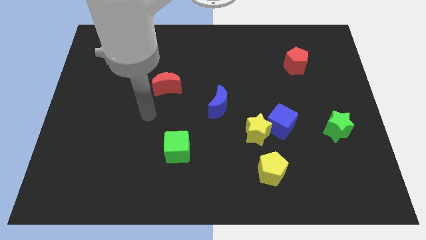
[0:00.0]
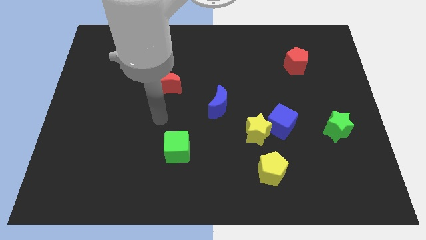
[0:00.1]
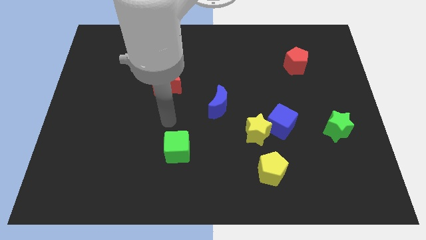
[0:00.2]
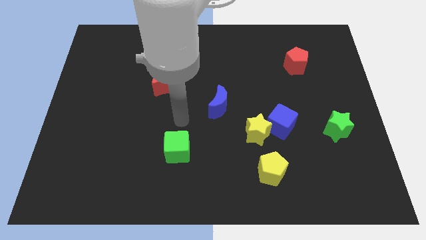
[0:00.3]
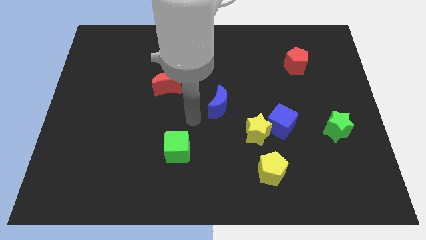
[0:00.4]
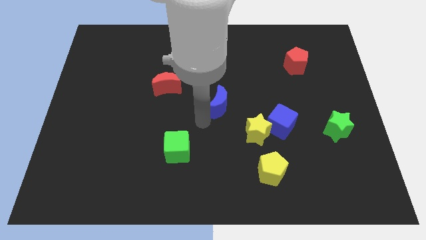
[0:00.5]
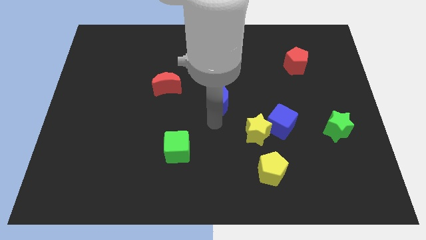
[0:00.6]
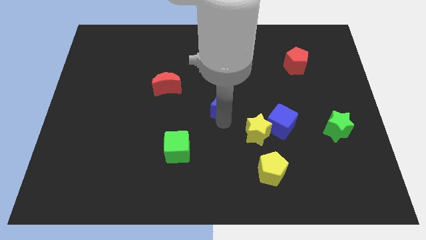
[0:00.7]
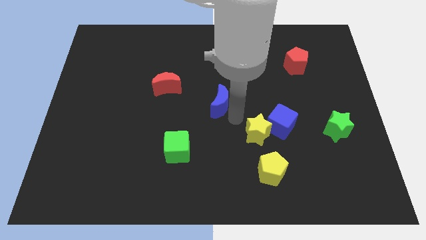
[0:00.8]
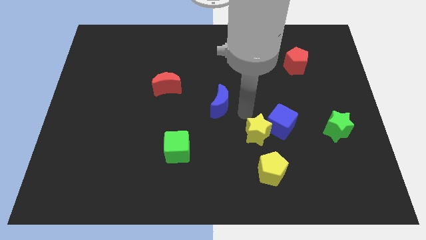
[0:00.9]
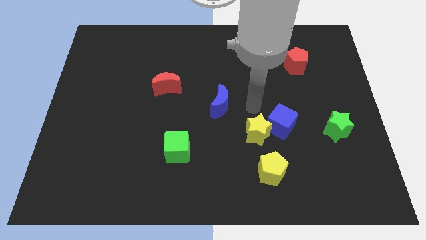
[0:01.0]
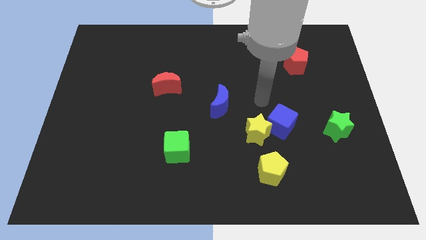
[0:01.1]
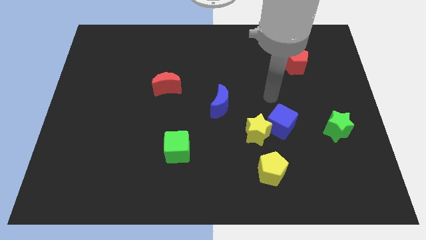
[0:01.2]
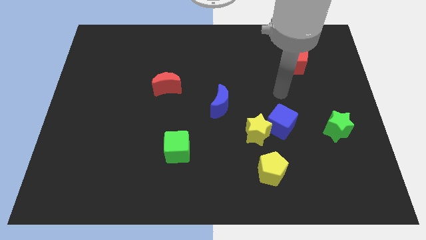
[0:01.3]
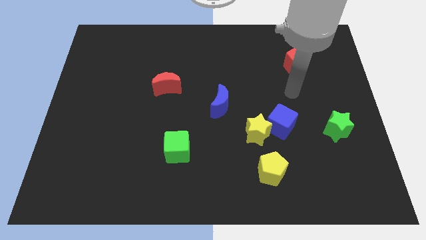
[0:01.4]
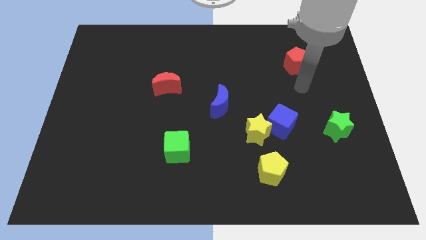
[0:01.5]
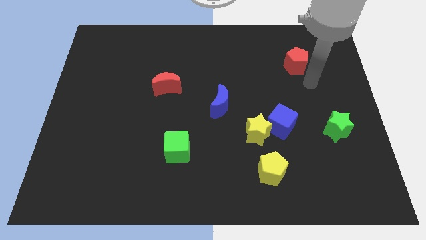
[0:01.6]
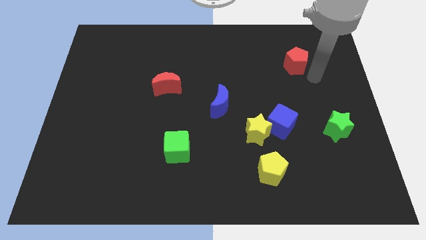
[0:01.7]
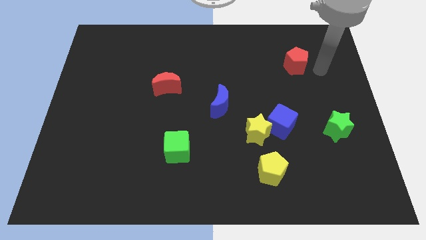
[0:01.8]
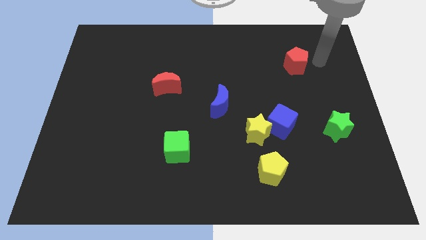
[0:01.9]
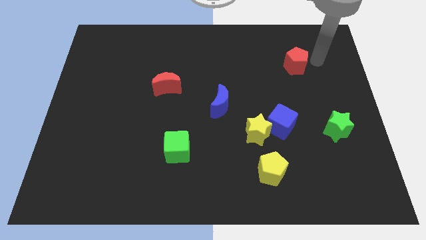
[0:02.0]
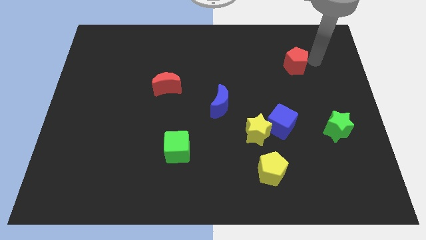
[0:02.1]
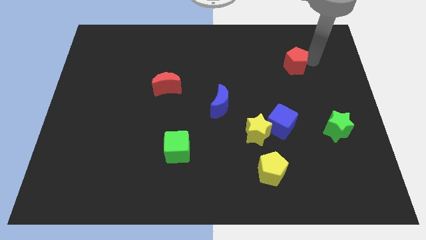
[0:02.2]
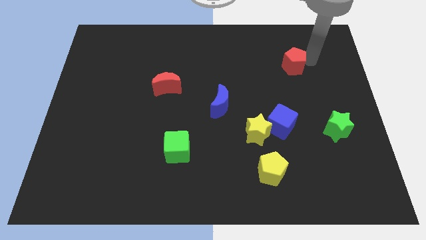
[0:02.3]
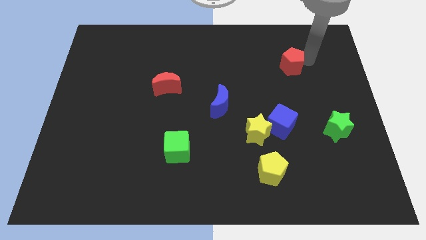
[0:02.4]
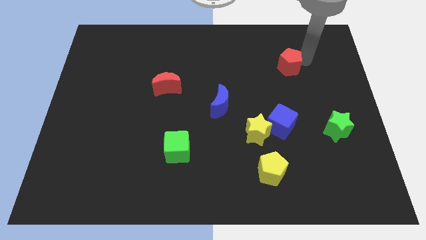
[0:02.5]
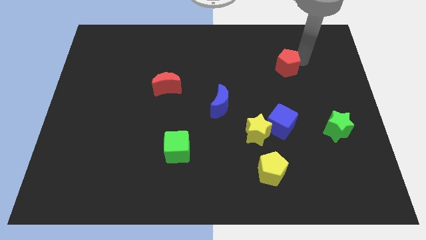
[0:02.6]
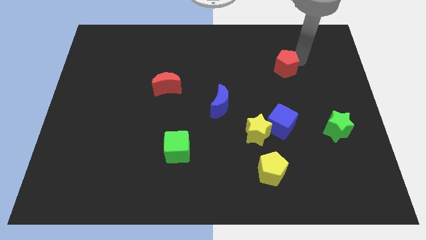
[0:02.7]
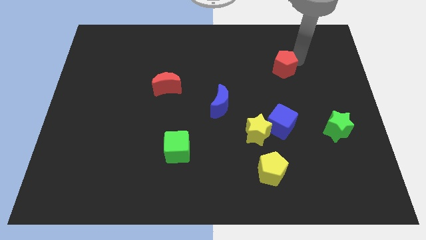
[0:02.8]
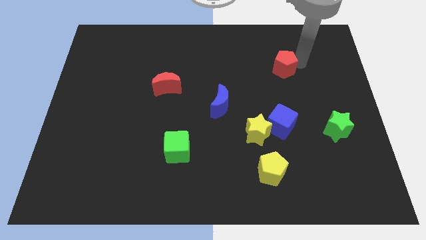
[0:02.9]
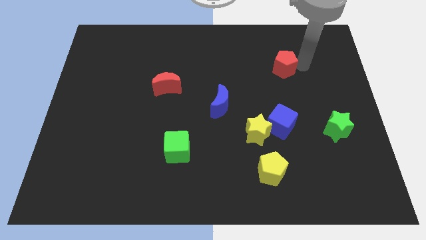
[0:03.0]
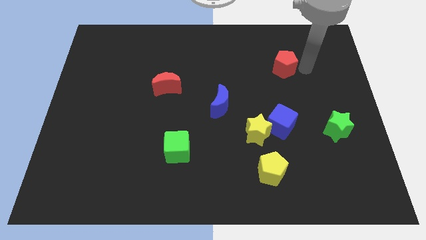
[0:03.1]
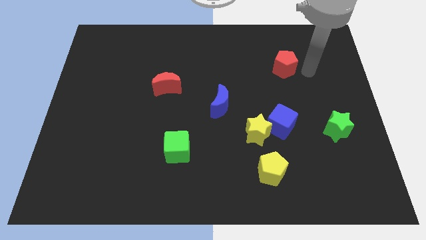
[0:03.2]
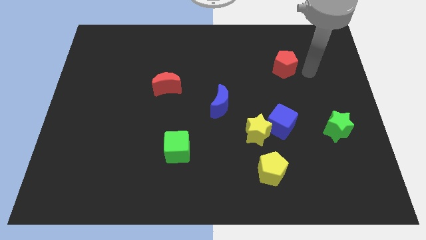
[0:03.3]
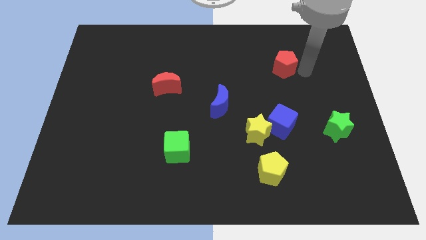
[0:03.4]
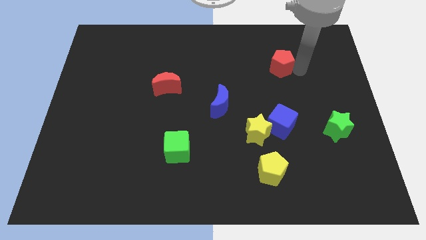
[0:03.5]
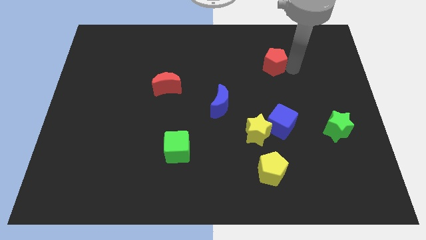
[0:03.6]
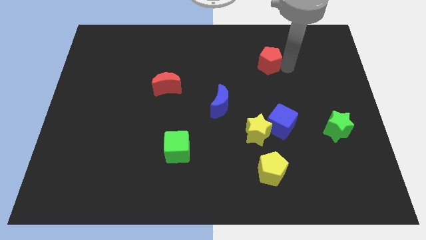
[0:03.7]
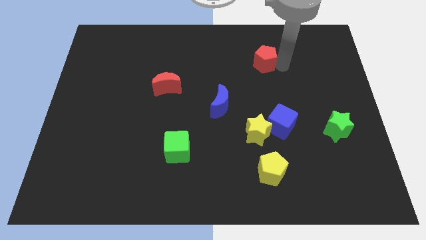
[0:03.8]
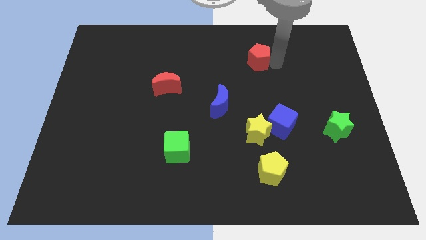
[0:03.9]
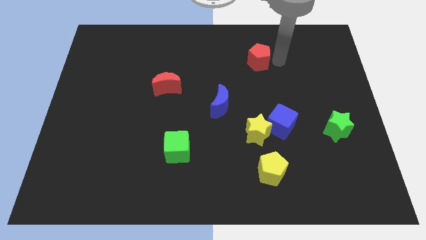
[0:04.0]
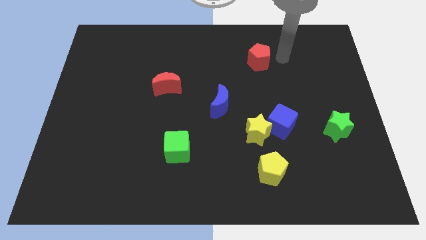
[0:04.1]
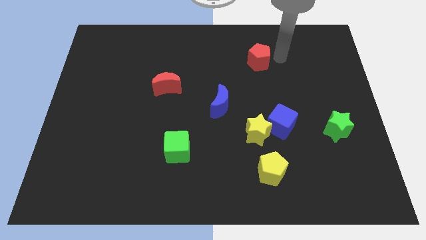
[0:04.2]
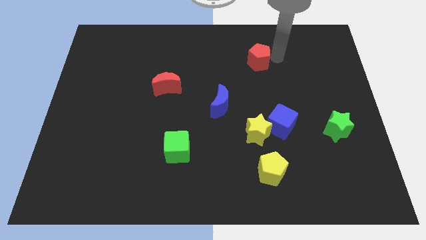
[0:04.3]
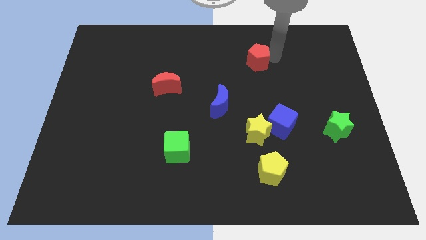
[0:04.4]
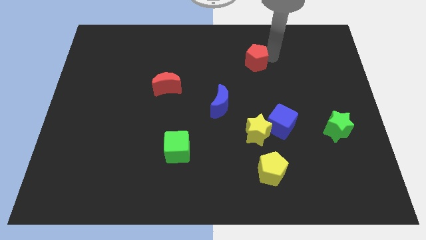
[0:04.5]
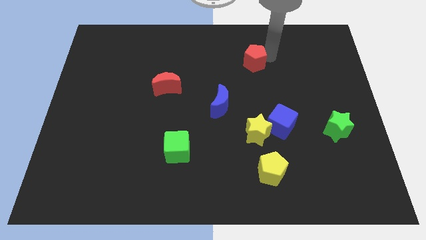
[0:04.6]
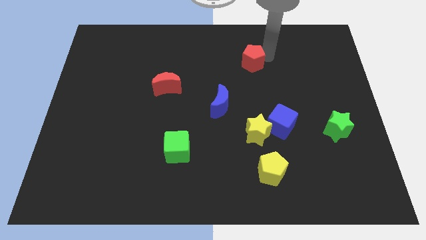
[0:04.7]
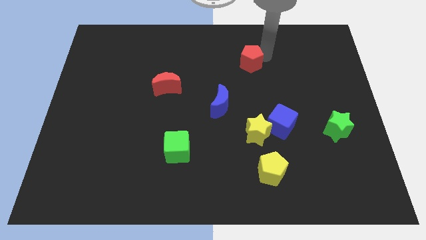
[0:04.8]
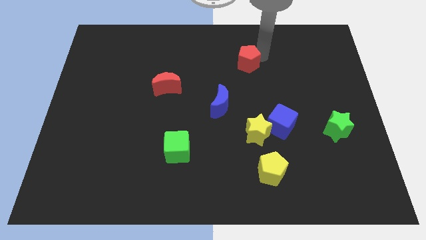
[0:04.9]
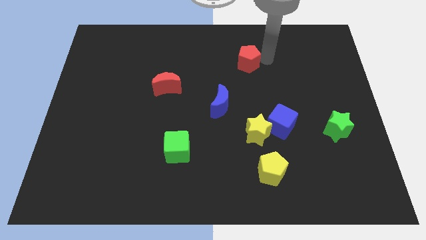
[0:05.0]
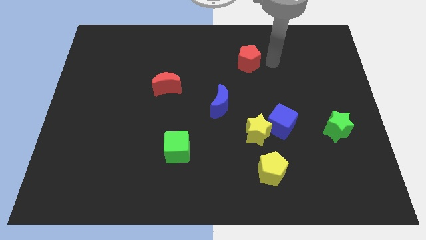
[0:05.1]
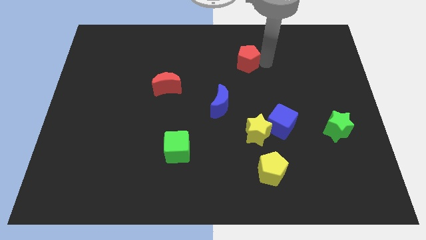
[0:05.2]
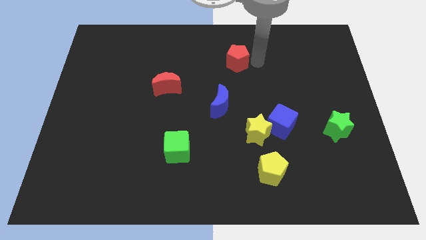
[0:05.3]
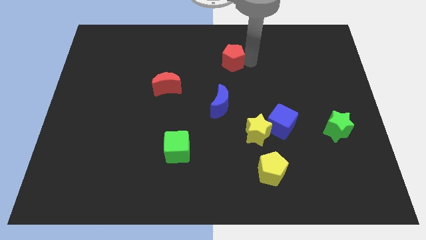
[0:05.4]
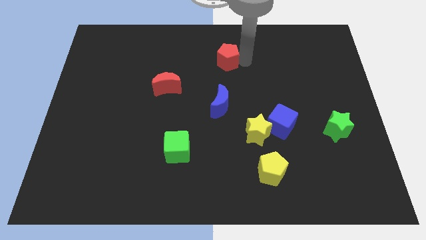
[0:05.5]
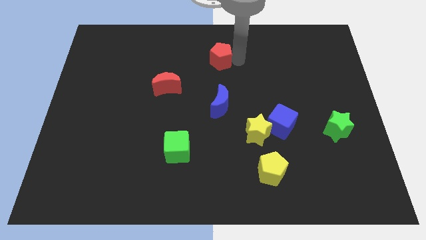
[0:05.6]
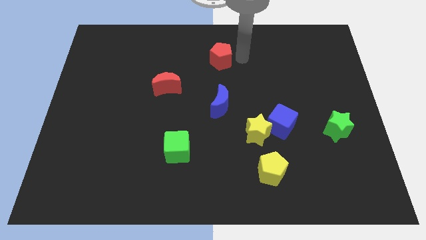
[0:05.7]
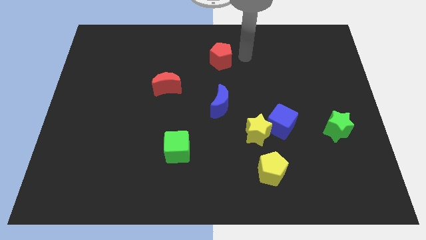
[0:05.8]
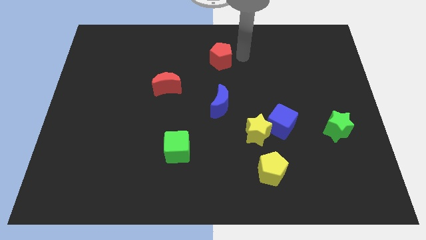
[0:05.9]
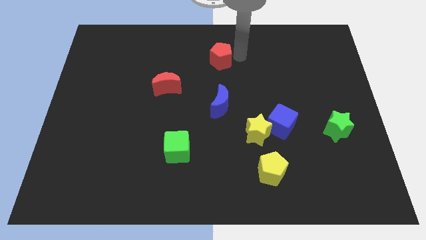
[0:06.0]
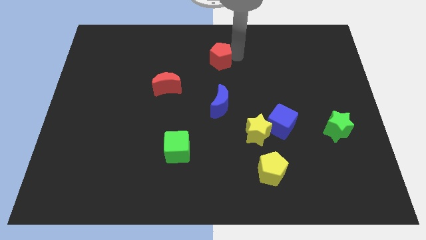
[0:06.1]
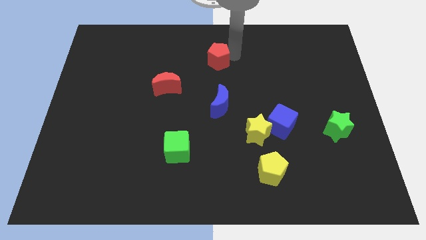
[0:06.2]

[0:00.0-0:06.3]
move the red pentagon to the left

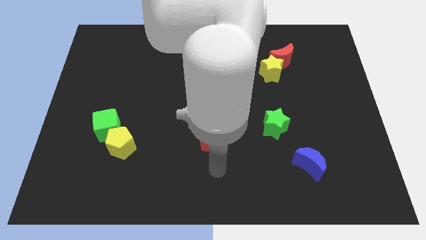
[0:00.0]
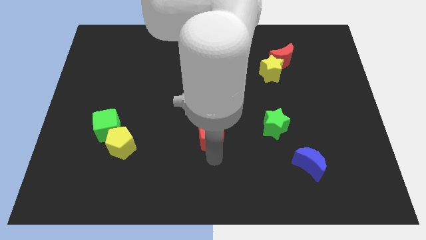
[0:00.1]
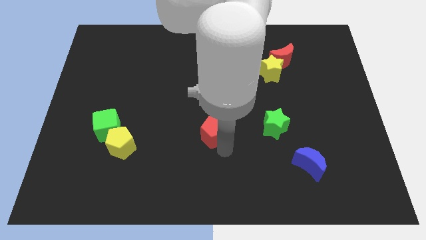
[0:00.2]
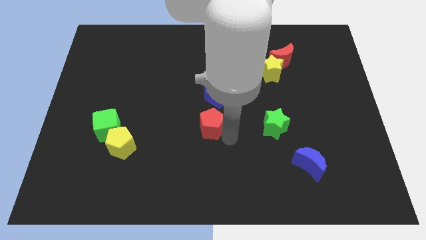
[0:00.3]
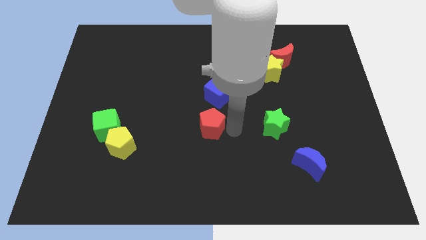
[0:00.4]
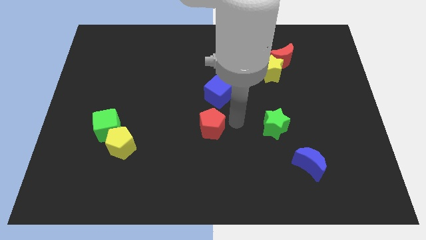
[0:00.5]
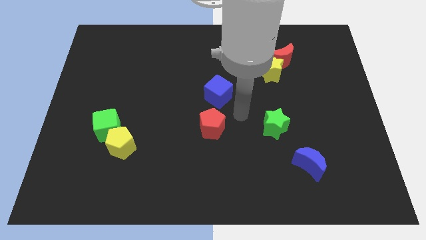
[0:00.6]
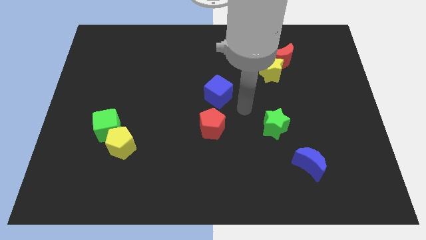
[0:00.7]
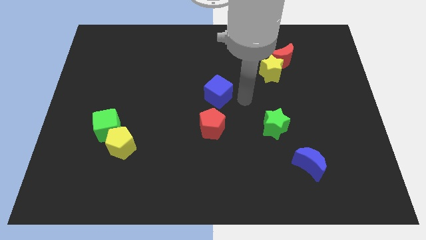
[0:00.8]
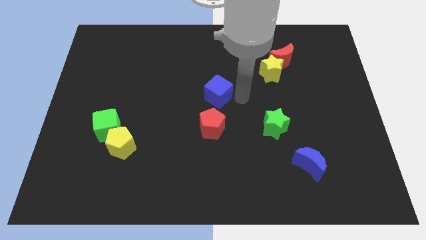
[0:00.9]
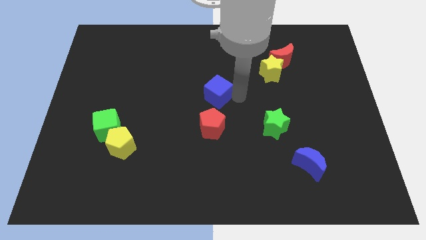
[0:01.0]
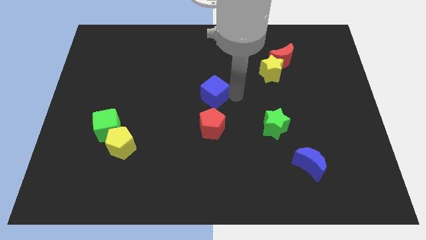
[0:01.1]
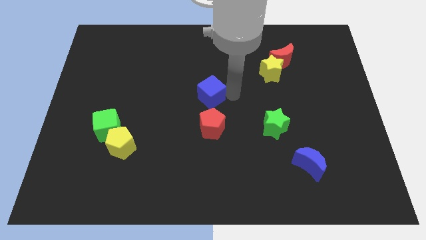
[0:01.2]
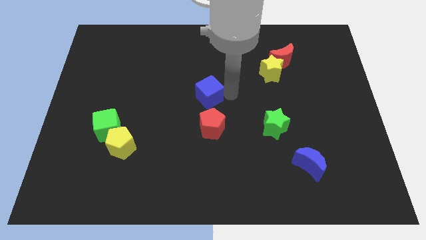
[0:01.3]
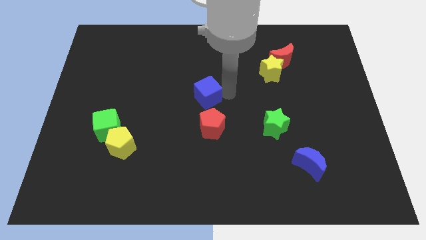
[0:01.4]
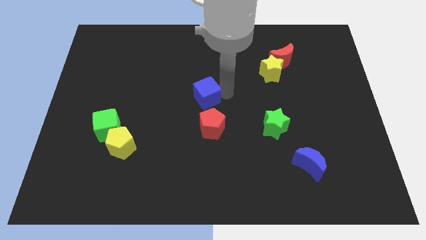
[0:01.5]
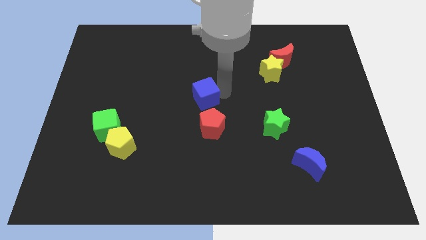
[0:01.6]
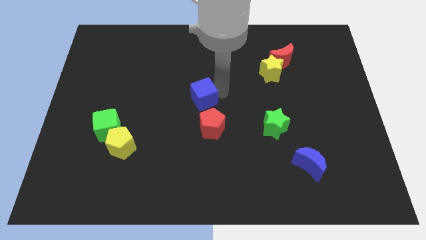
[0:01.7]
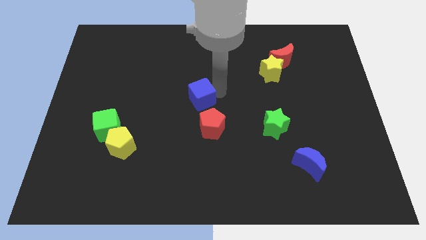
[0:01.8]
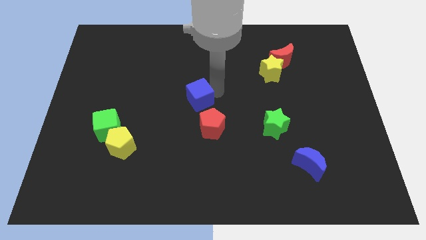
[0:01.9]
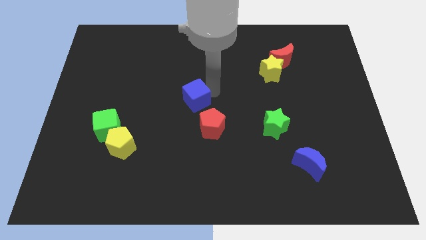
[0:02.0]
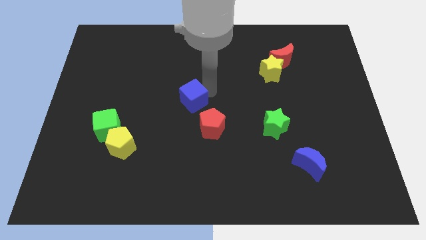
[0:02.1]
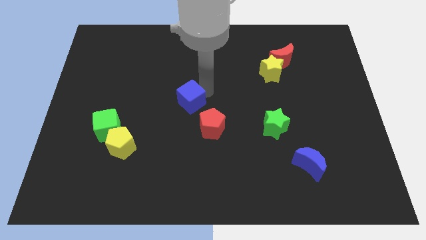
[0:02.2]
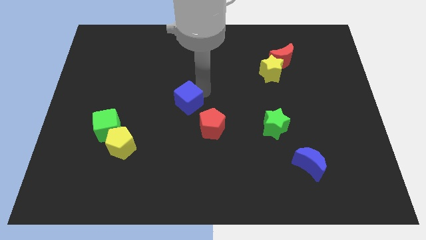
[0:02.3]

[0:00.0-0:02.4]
slightly move the blue cube to the left
